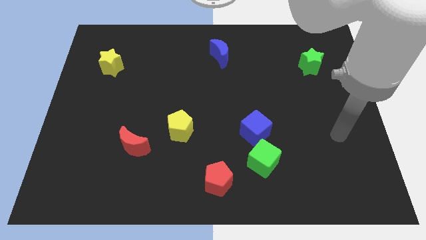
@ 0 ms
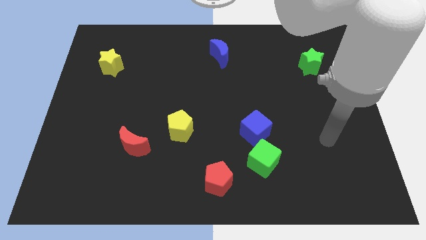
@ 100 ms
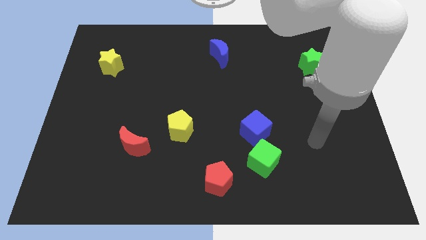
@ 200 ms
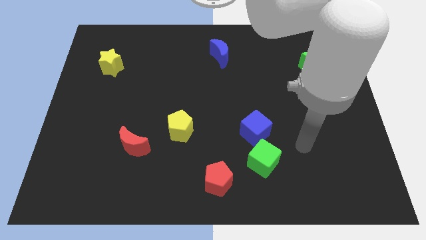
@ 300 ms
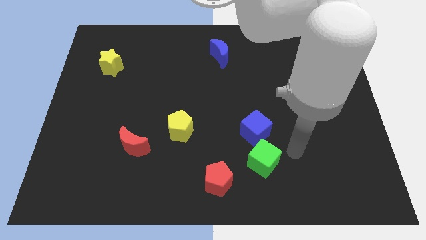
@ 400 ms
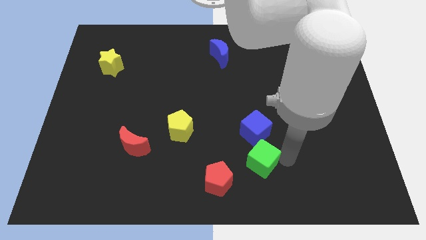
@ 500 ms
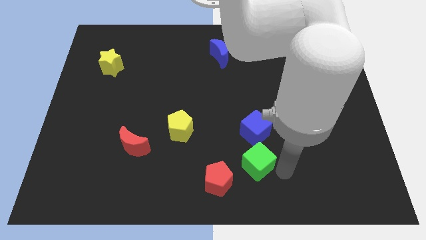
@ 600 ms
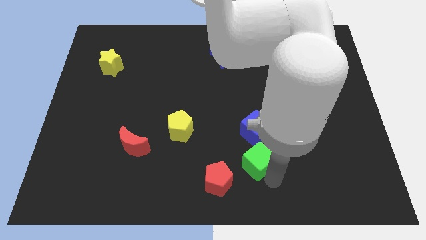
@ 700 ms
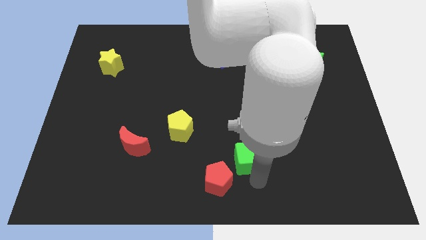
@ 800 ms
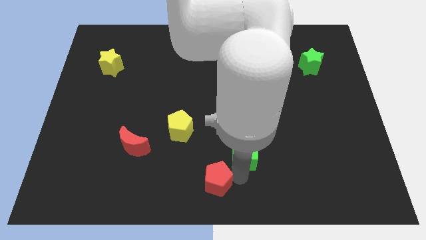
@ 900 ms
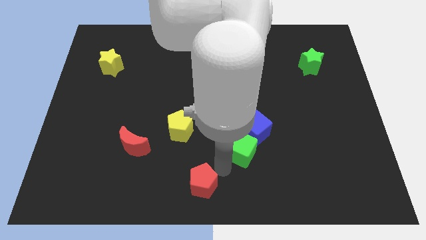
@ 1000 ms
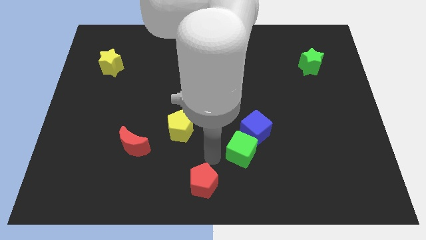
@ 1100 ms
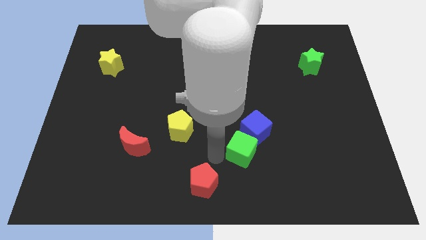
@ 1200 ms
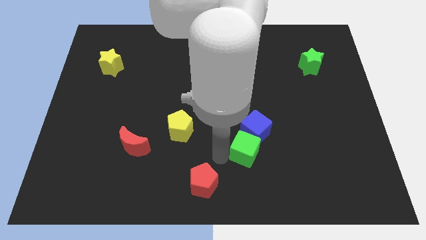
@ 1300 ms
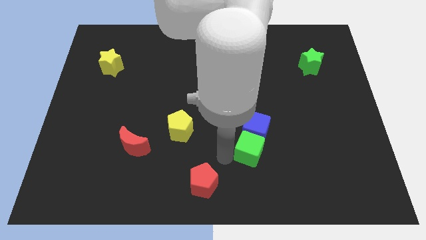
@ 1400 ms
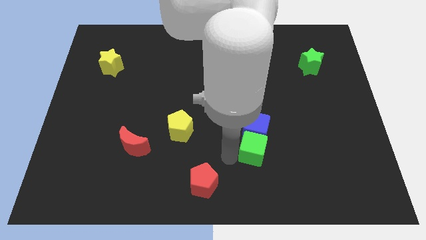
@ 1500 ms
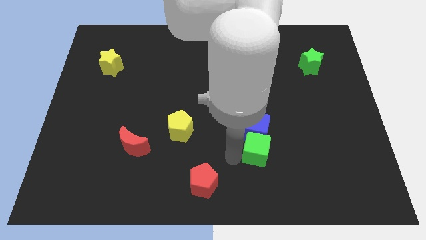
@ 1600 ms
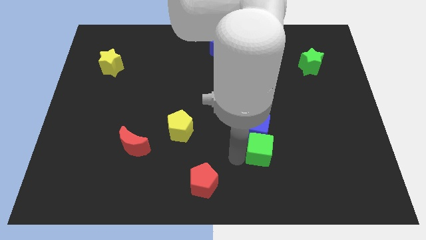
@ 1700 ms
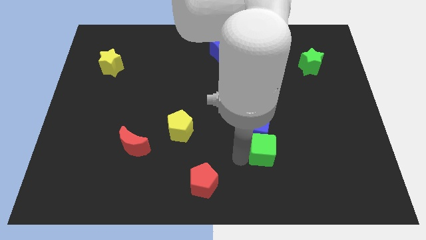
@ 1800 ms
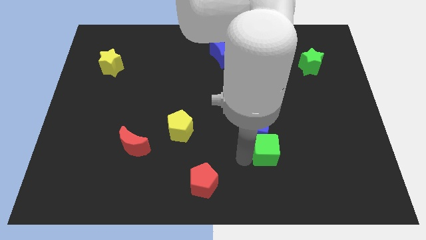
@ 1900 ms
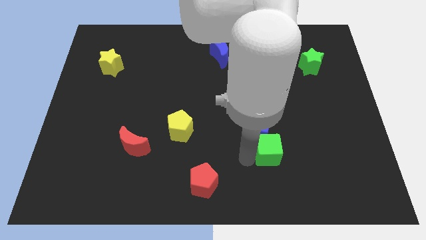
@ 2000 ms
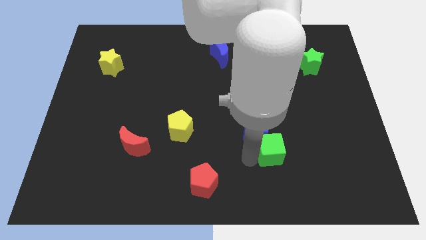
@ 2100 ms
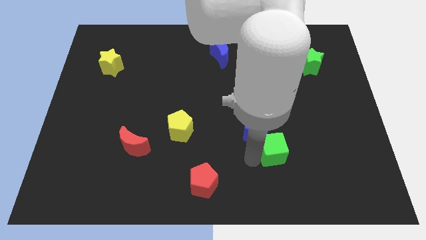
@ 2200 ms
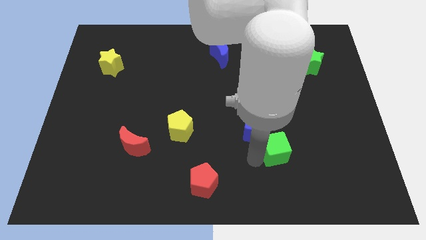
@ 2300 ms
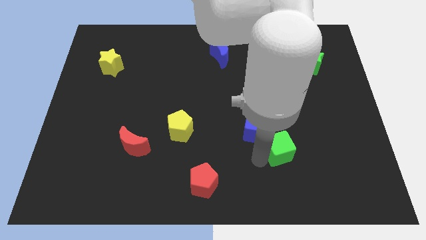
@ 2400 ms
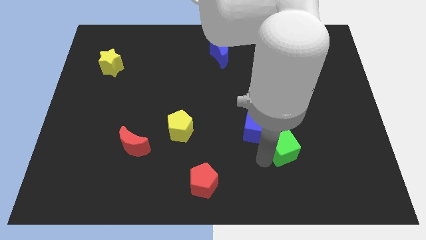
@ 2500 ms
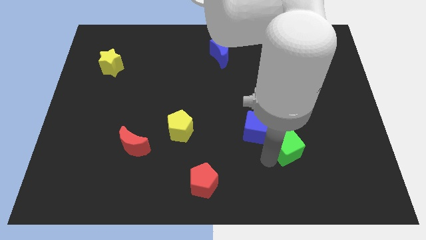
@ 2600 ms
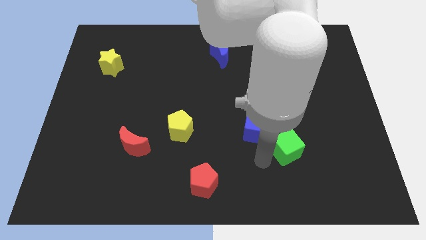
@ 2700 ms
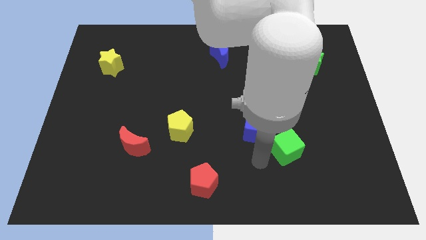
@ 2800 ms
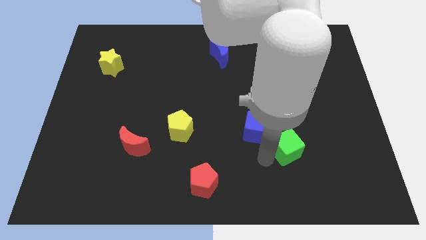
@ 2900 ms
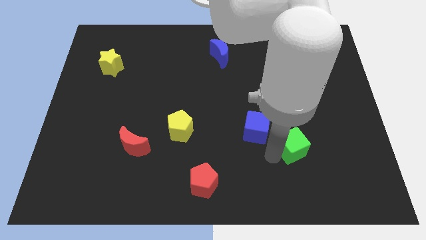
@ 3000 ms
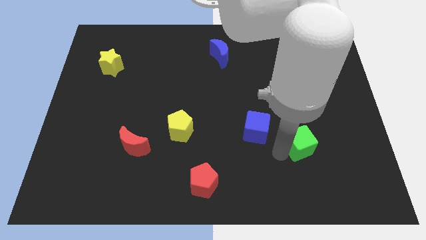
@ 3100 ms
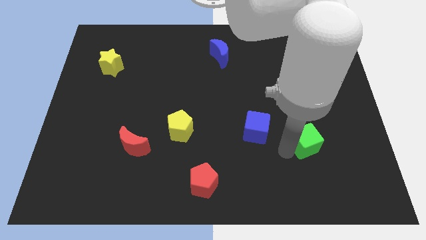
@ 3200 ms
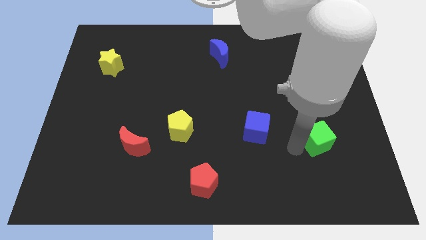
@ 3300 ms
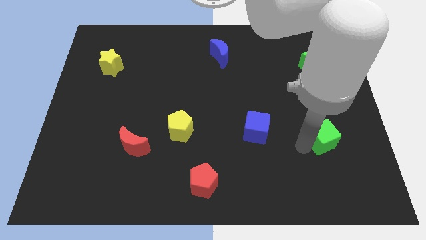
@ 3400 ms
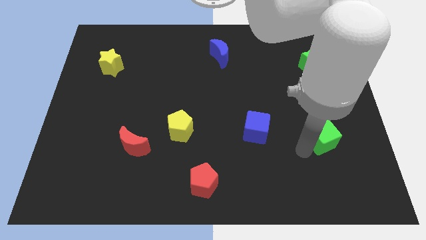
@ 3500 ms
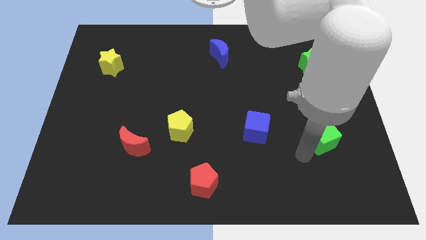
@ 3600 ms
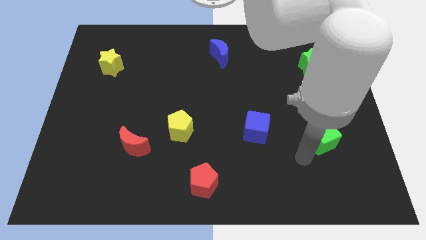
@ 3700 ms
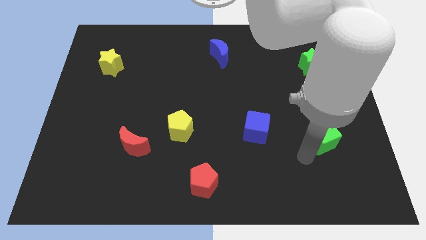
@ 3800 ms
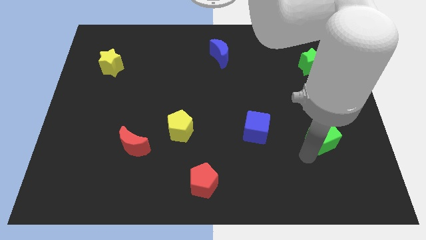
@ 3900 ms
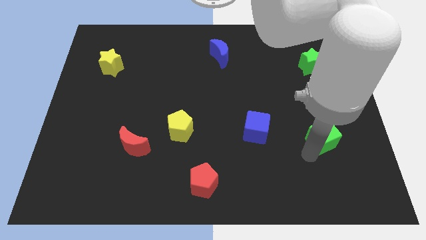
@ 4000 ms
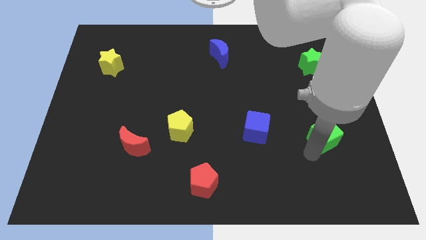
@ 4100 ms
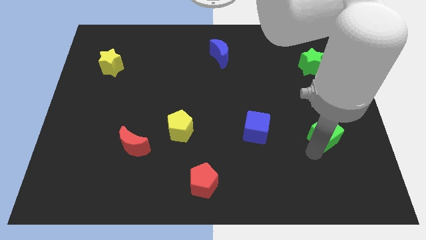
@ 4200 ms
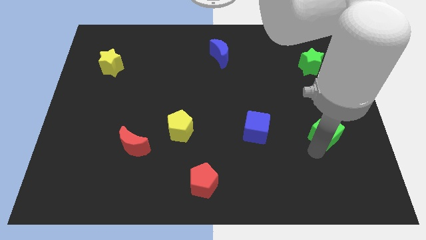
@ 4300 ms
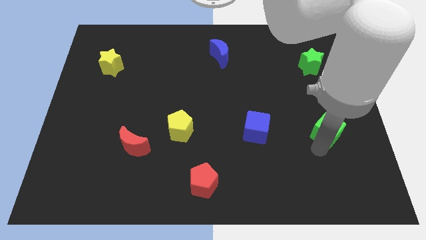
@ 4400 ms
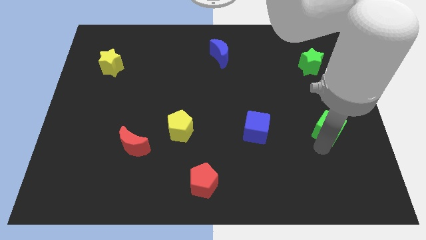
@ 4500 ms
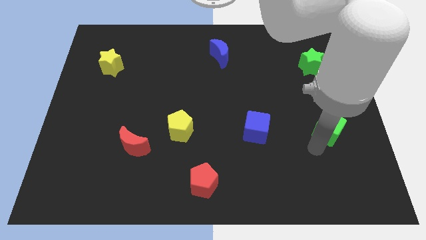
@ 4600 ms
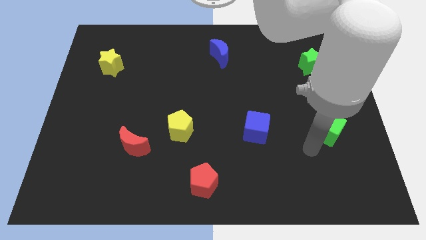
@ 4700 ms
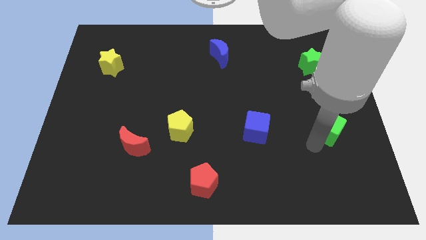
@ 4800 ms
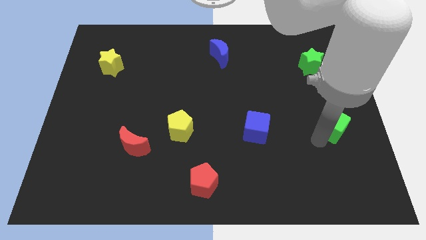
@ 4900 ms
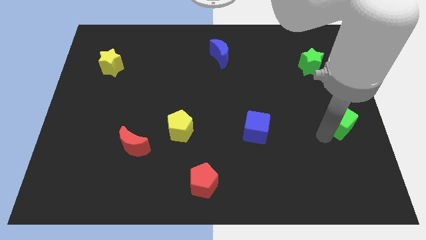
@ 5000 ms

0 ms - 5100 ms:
move the green cube to the right side of the board

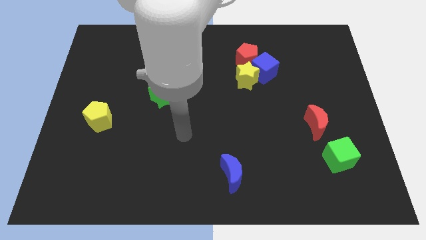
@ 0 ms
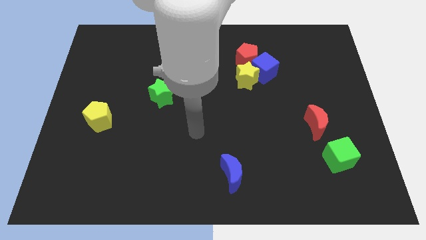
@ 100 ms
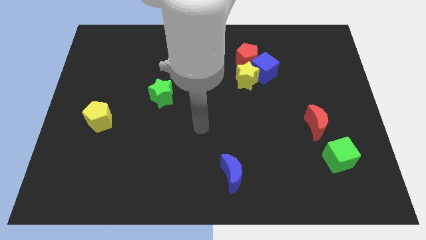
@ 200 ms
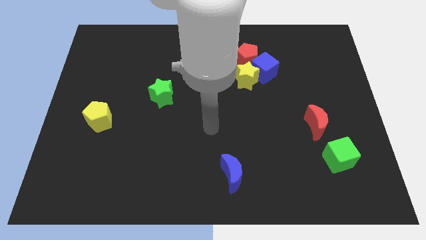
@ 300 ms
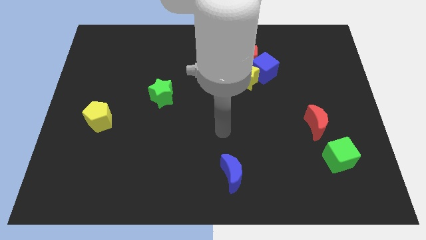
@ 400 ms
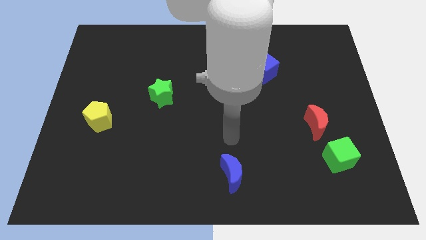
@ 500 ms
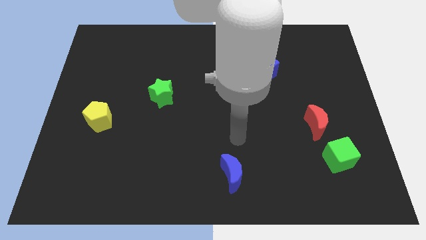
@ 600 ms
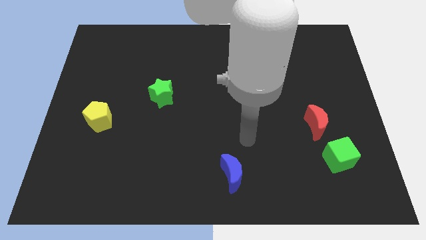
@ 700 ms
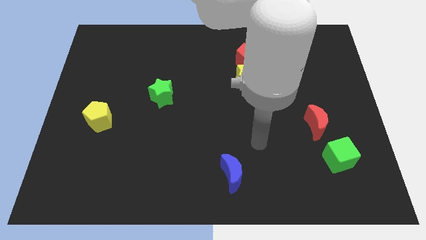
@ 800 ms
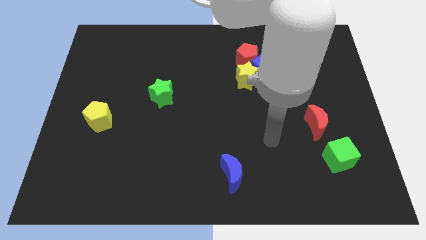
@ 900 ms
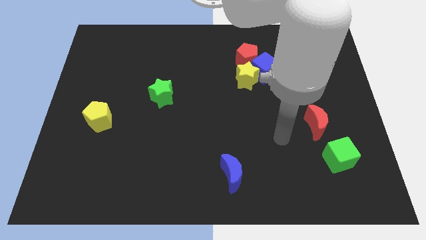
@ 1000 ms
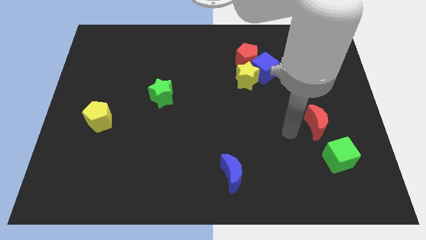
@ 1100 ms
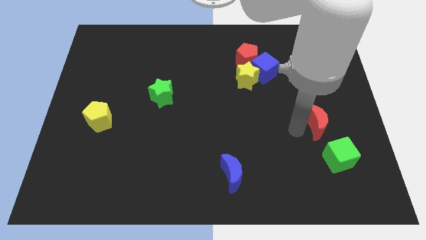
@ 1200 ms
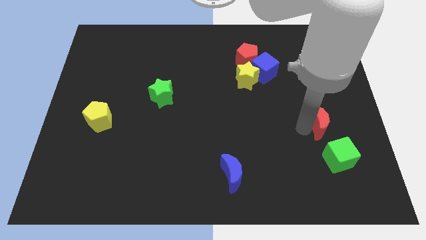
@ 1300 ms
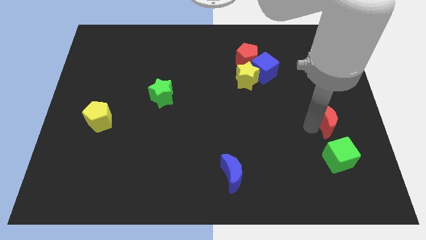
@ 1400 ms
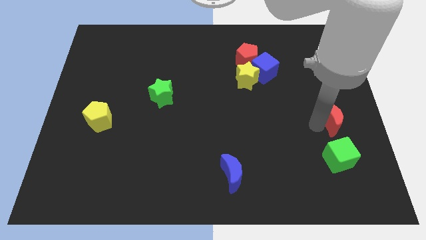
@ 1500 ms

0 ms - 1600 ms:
move the red moon to the right side

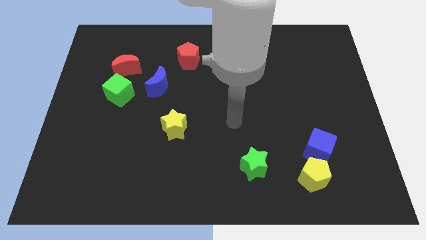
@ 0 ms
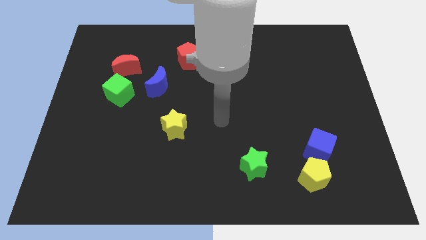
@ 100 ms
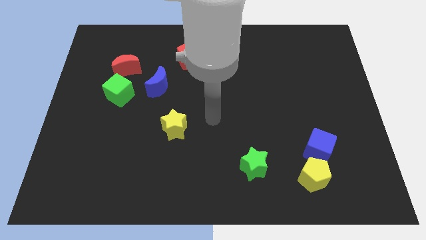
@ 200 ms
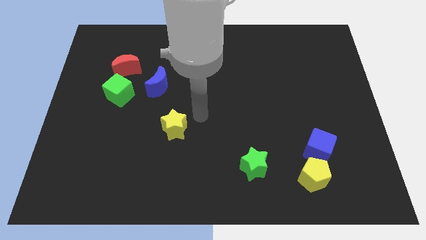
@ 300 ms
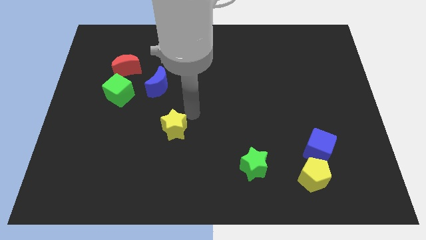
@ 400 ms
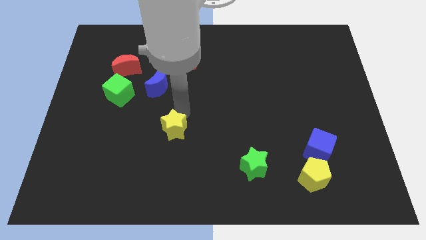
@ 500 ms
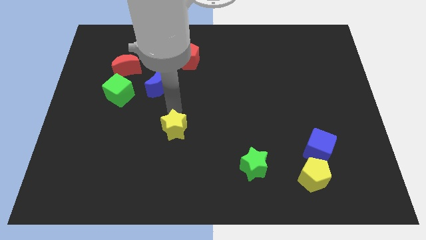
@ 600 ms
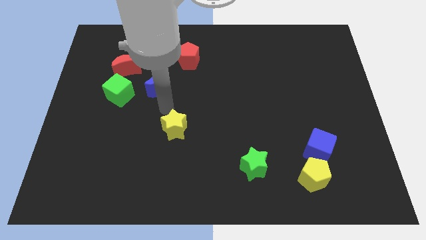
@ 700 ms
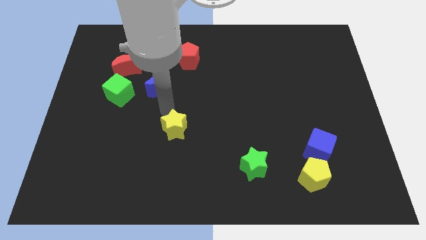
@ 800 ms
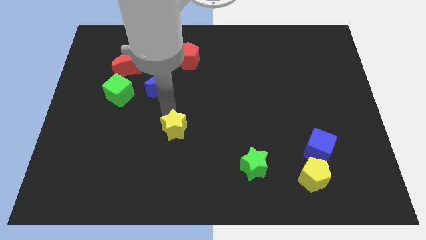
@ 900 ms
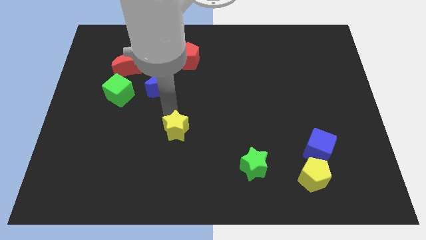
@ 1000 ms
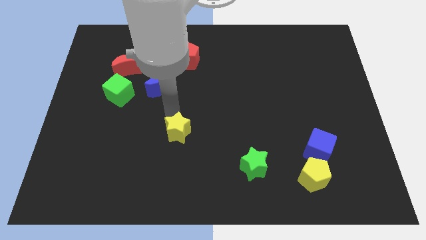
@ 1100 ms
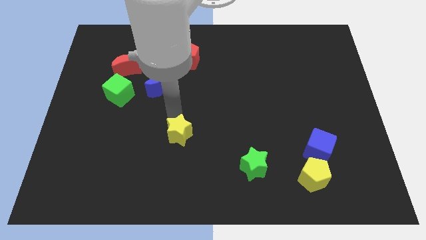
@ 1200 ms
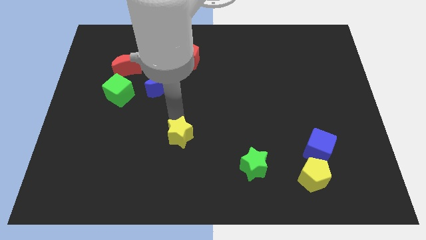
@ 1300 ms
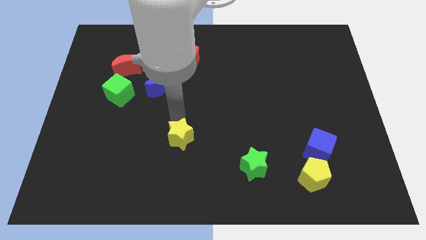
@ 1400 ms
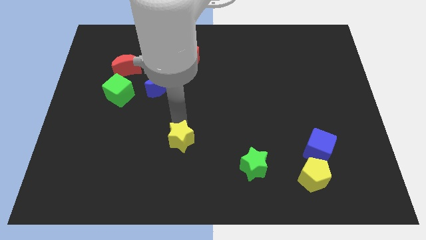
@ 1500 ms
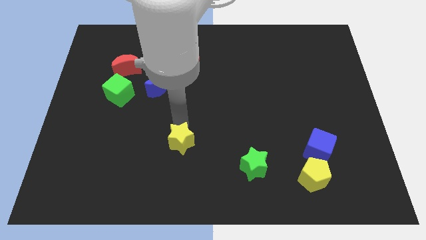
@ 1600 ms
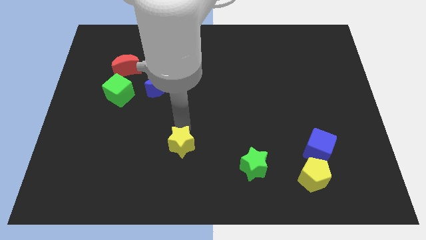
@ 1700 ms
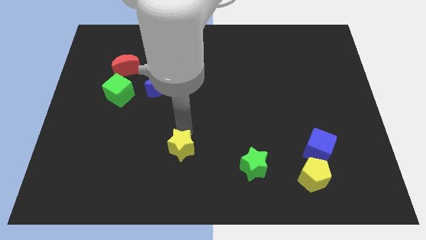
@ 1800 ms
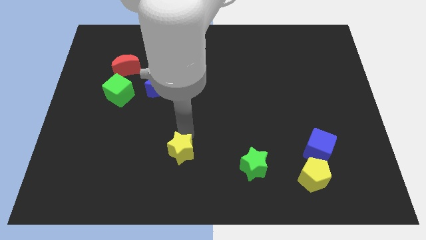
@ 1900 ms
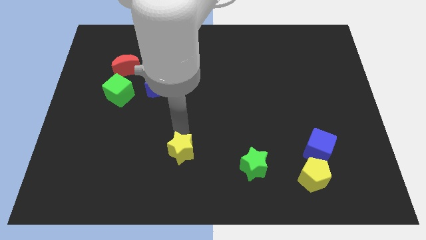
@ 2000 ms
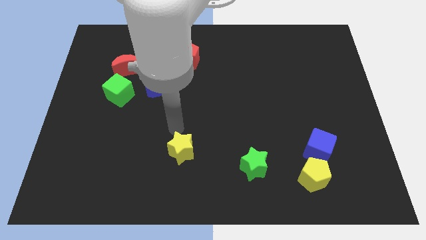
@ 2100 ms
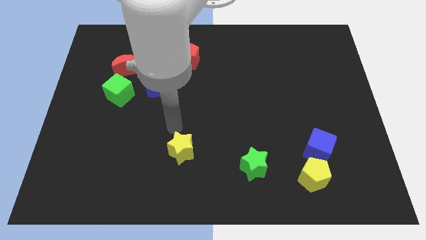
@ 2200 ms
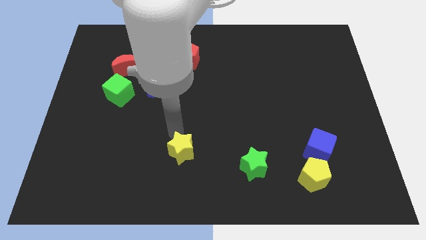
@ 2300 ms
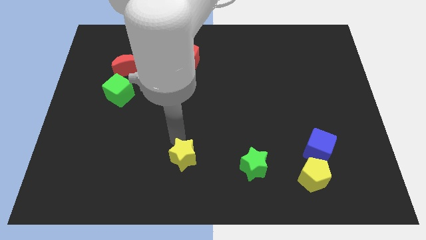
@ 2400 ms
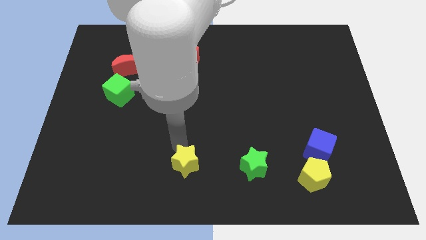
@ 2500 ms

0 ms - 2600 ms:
slide the yellow star to the bottom side
